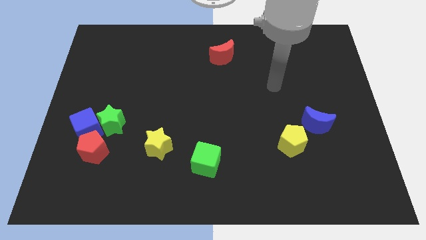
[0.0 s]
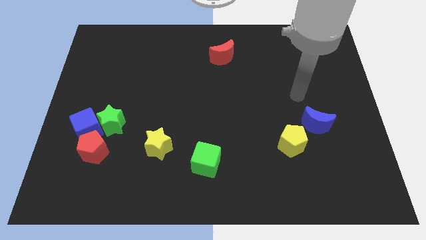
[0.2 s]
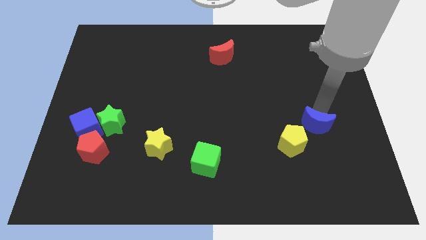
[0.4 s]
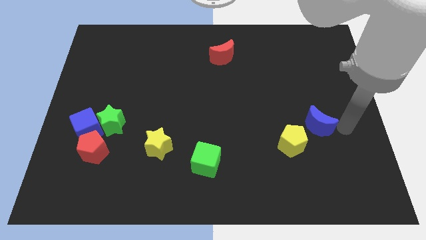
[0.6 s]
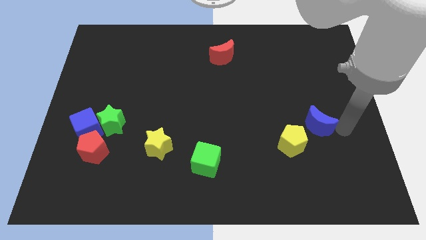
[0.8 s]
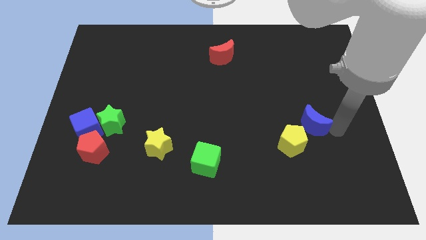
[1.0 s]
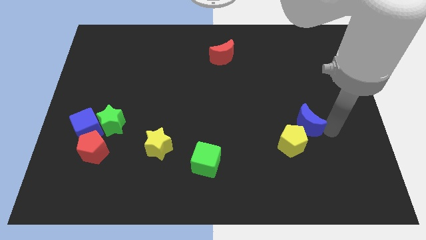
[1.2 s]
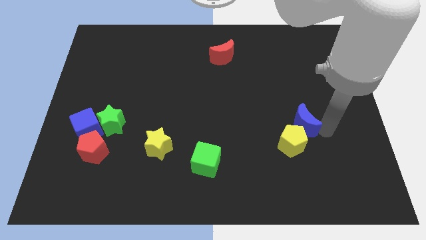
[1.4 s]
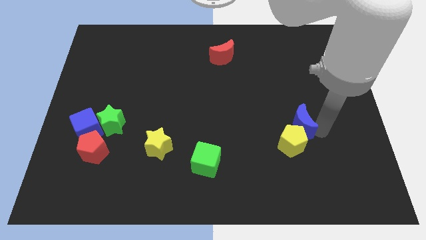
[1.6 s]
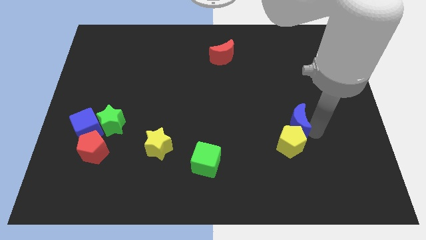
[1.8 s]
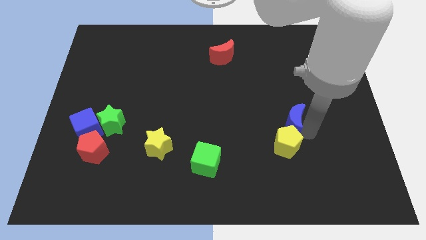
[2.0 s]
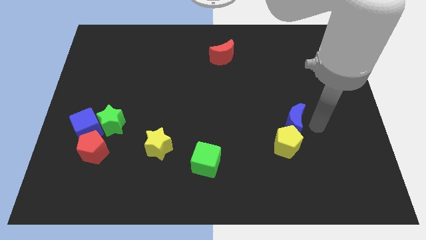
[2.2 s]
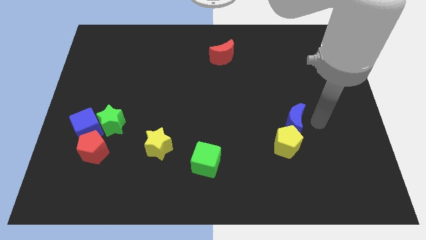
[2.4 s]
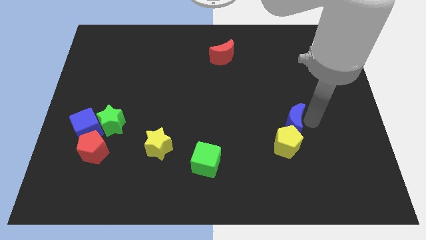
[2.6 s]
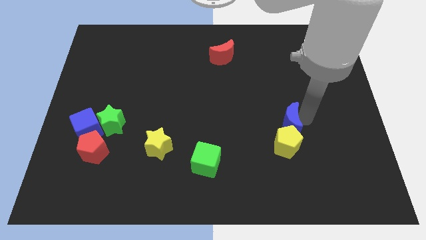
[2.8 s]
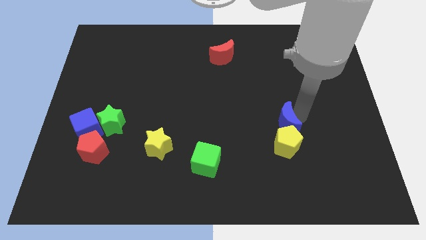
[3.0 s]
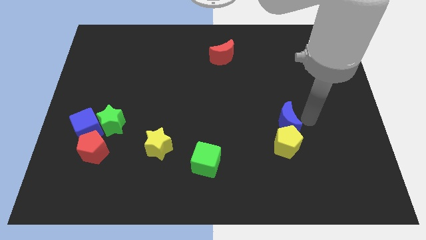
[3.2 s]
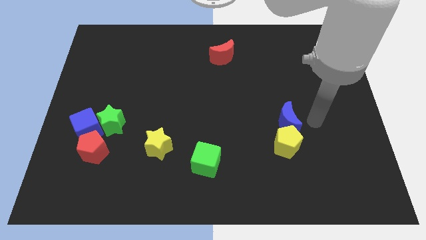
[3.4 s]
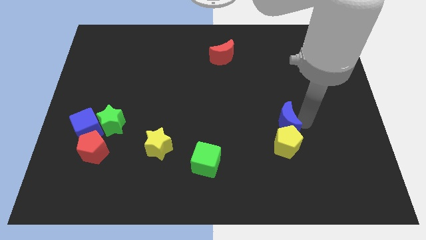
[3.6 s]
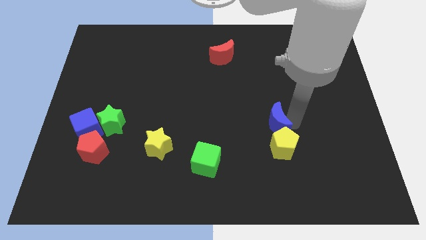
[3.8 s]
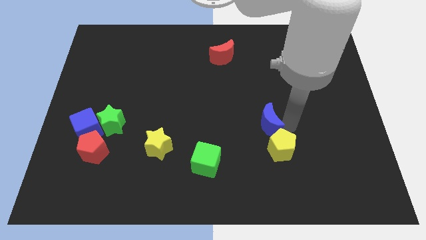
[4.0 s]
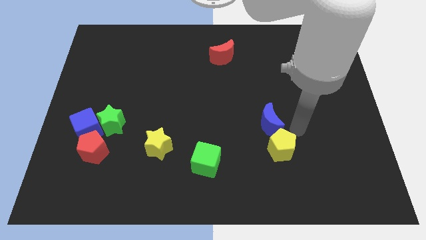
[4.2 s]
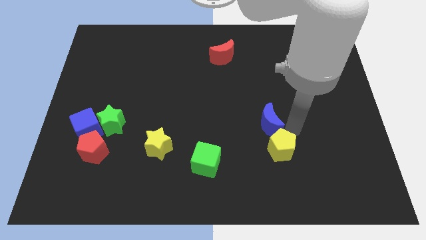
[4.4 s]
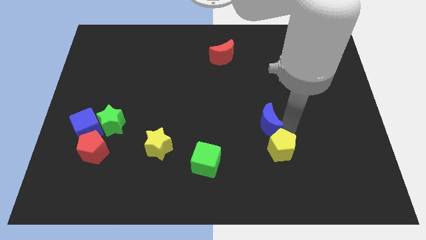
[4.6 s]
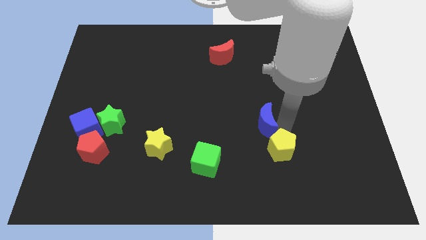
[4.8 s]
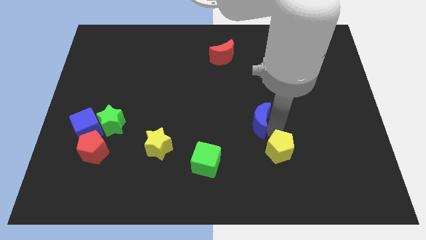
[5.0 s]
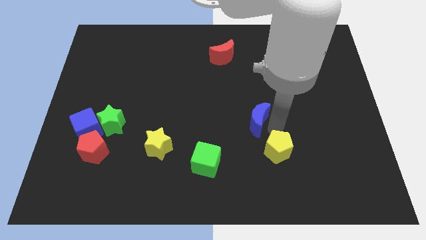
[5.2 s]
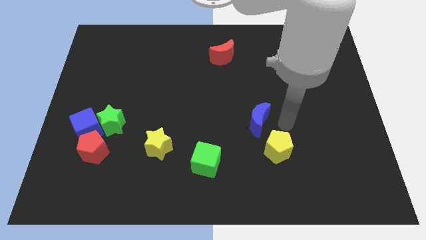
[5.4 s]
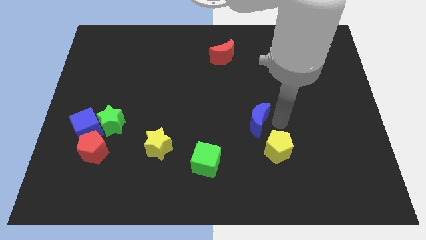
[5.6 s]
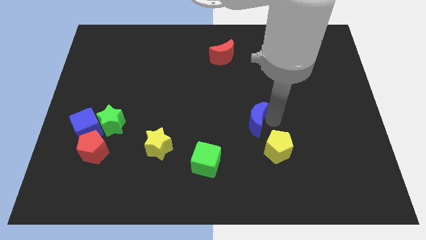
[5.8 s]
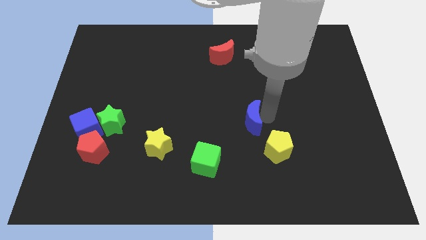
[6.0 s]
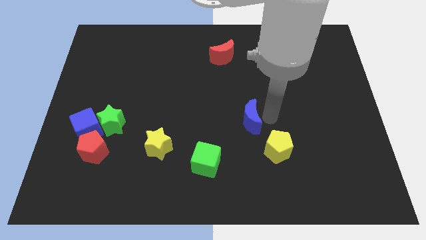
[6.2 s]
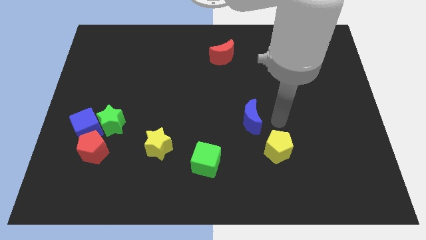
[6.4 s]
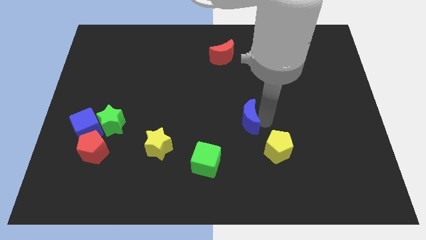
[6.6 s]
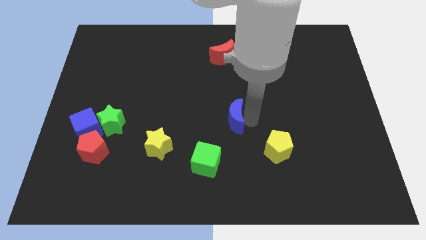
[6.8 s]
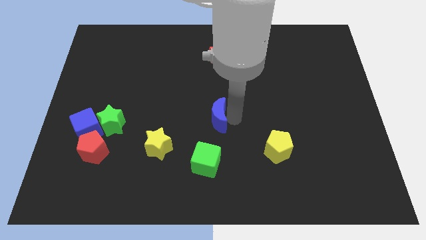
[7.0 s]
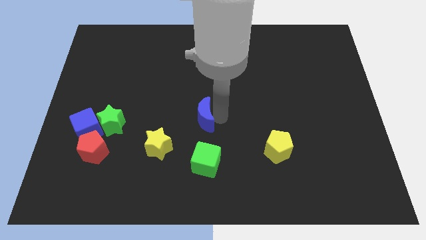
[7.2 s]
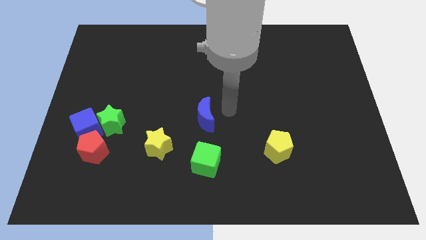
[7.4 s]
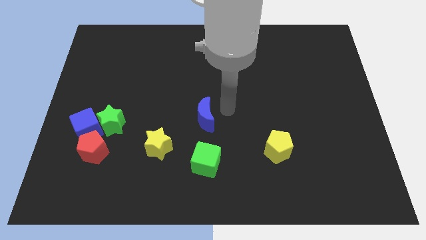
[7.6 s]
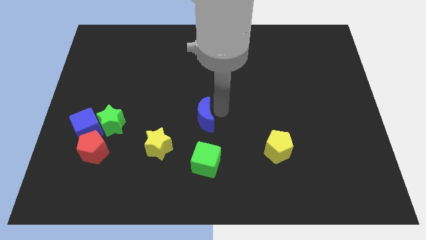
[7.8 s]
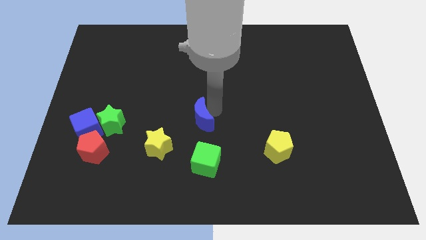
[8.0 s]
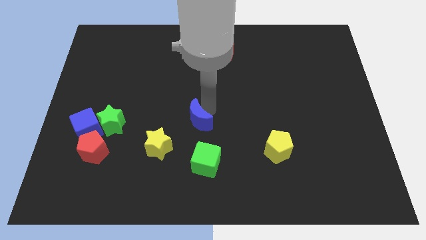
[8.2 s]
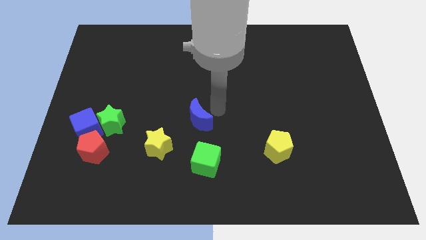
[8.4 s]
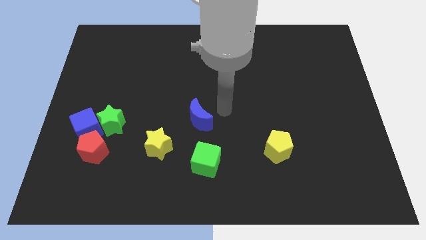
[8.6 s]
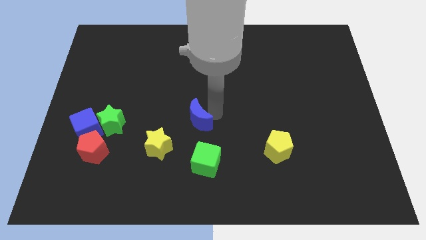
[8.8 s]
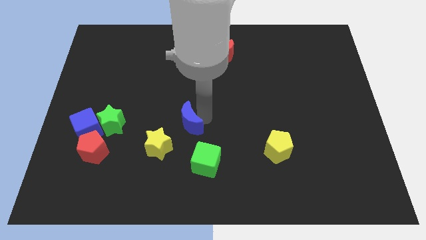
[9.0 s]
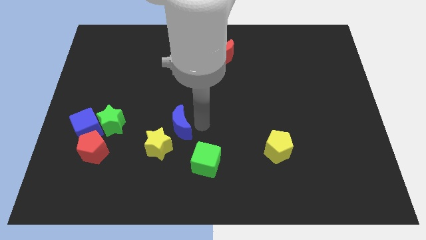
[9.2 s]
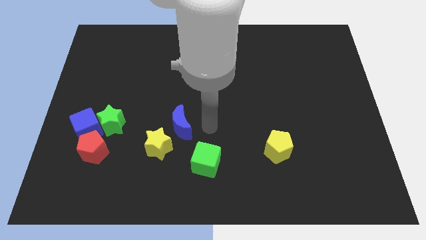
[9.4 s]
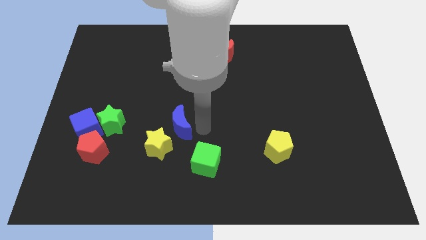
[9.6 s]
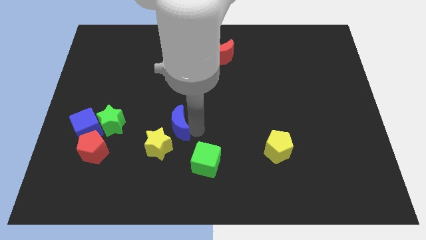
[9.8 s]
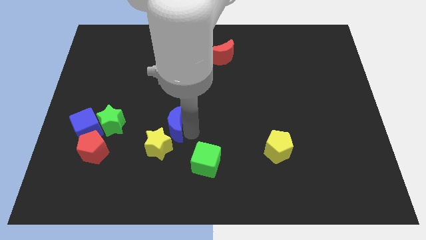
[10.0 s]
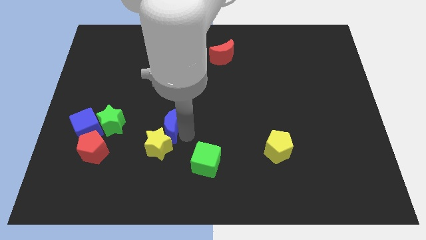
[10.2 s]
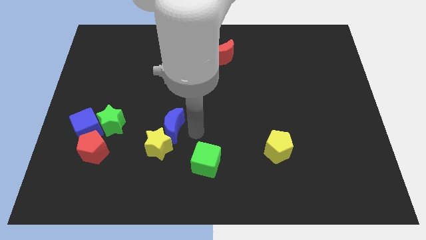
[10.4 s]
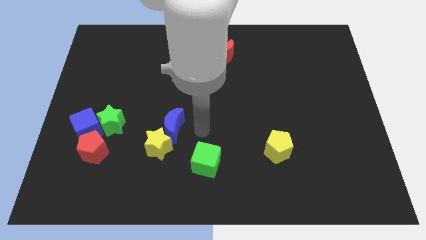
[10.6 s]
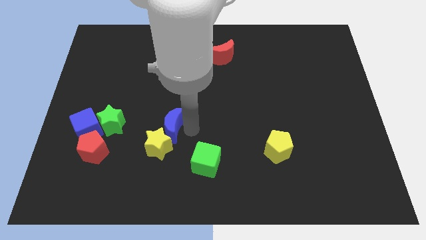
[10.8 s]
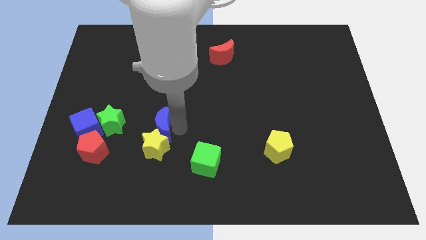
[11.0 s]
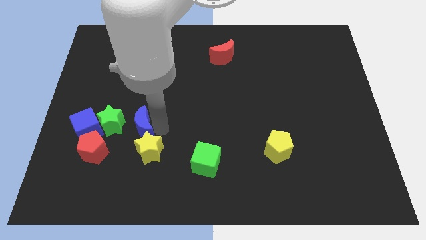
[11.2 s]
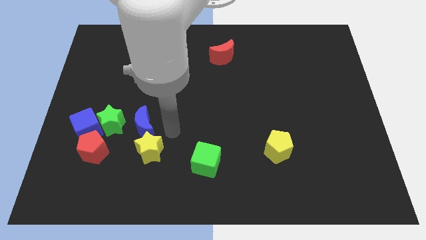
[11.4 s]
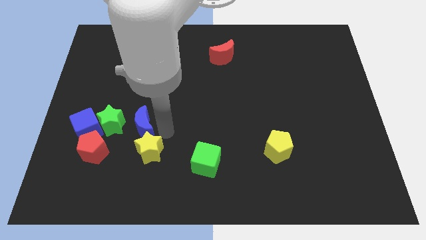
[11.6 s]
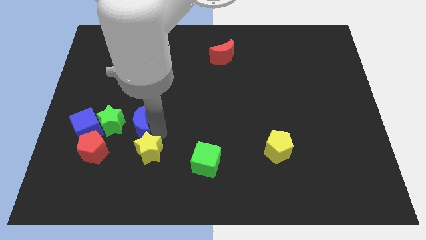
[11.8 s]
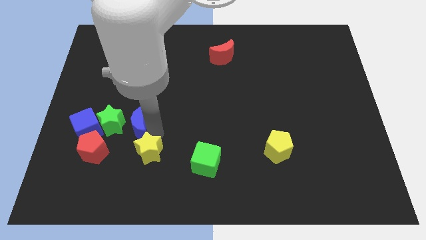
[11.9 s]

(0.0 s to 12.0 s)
put the blue moon close to the green star

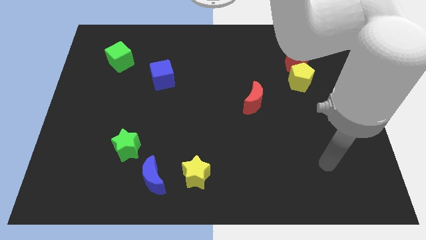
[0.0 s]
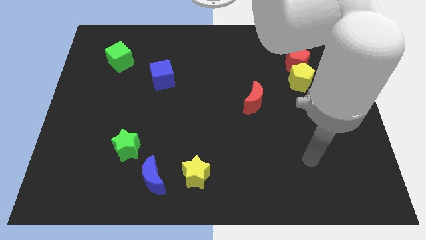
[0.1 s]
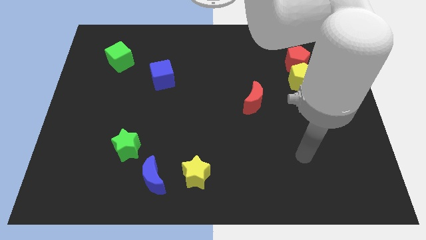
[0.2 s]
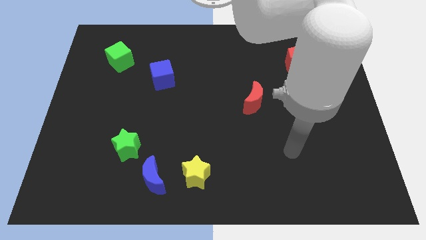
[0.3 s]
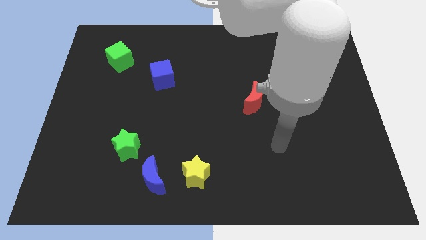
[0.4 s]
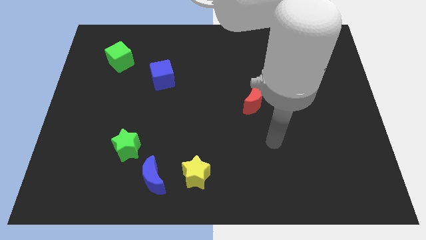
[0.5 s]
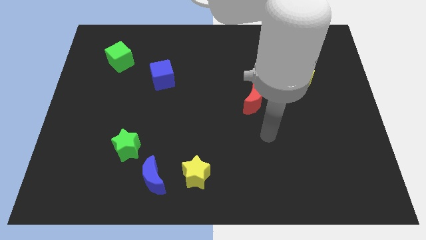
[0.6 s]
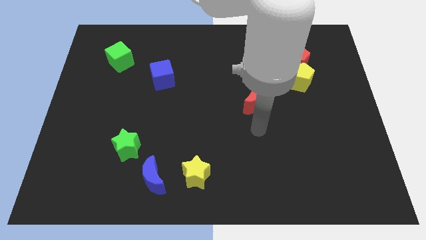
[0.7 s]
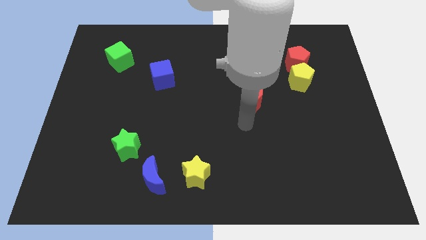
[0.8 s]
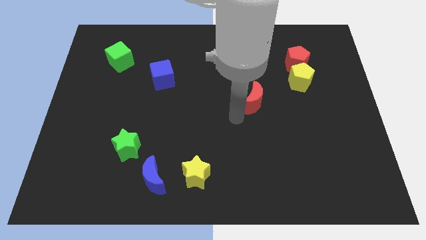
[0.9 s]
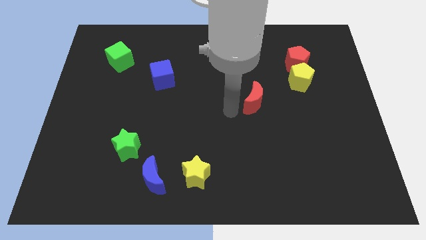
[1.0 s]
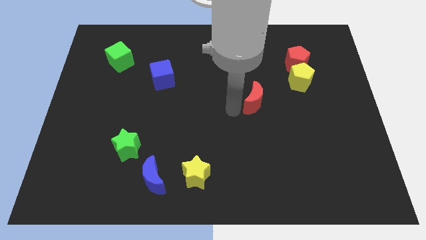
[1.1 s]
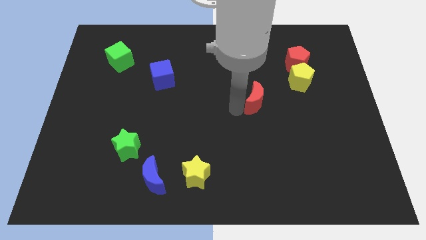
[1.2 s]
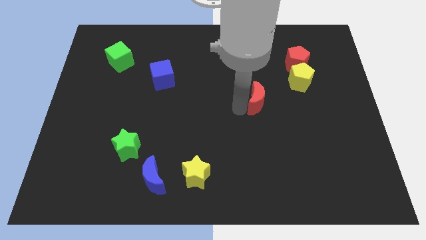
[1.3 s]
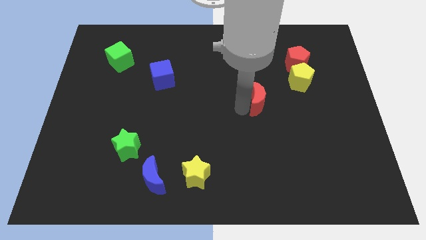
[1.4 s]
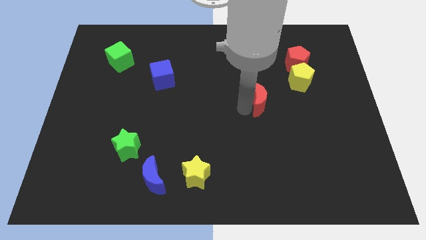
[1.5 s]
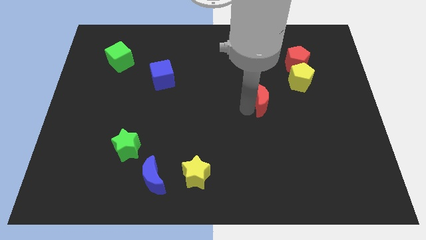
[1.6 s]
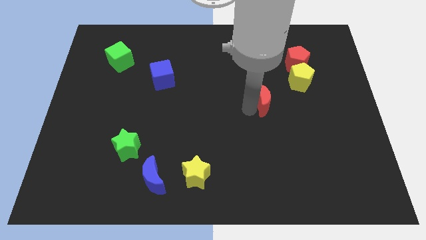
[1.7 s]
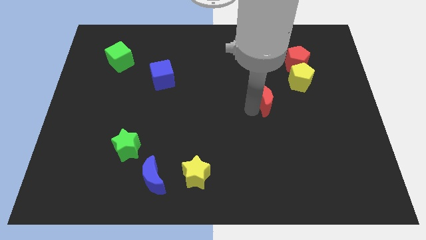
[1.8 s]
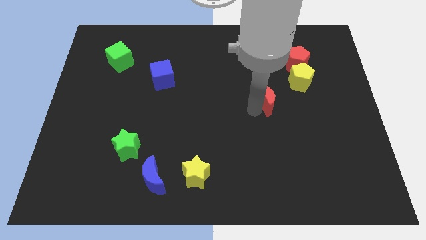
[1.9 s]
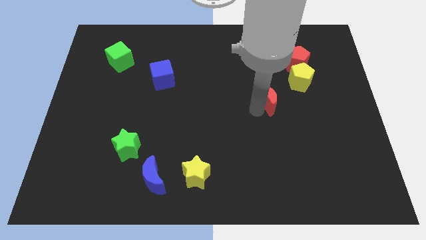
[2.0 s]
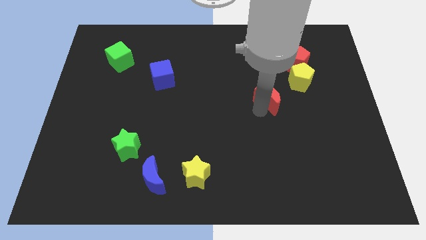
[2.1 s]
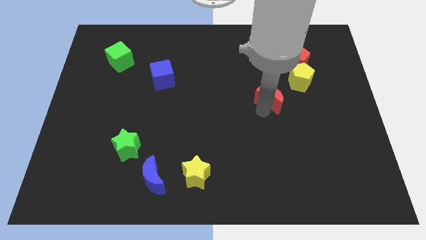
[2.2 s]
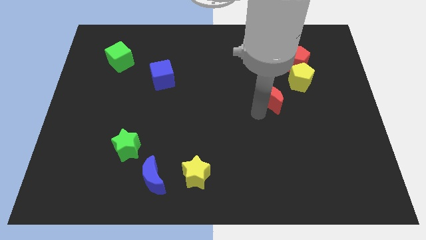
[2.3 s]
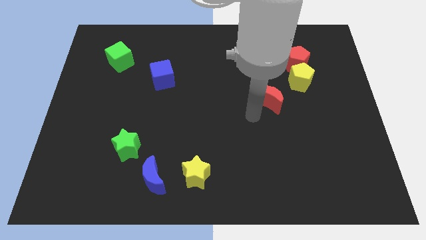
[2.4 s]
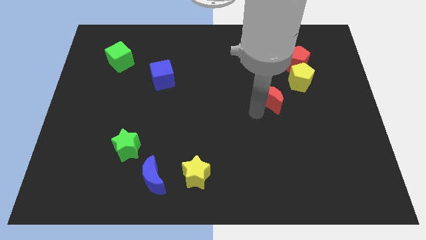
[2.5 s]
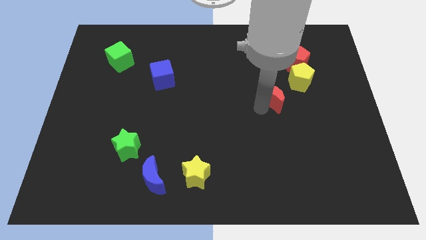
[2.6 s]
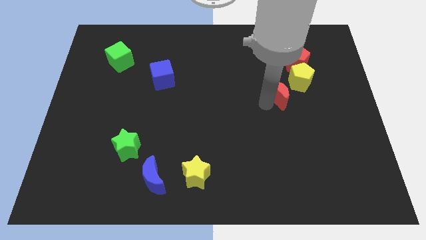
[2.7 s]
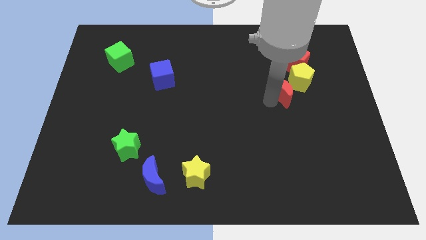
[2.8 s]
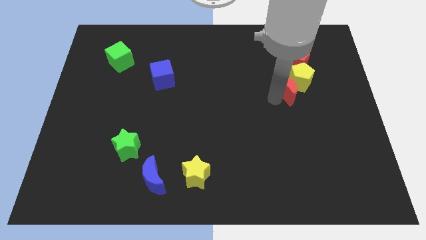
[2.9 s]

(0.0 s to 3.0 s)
put the red moon to the yellow pentagon
